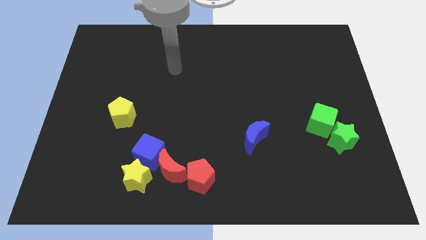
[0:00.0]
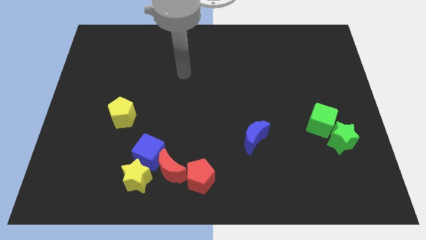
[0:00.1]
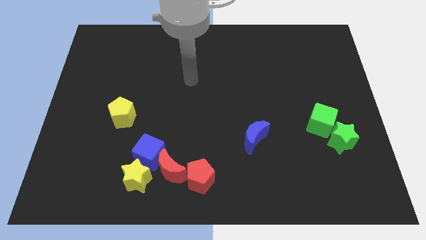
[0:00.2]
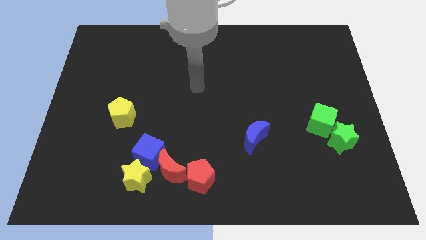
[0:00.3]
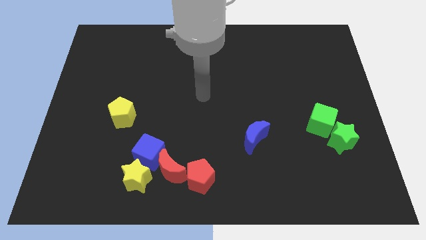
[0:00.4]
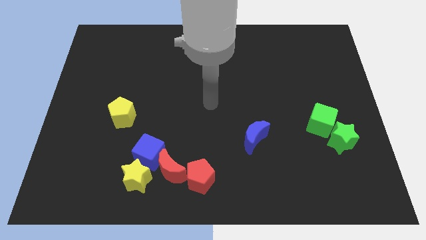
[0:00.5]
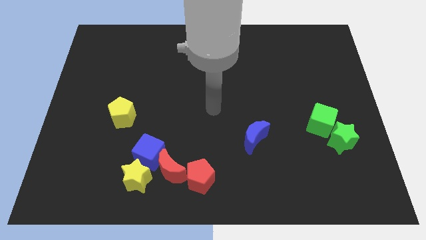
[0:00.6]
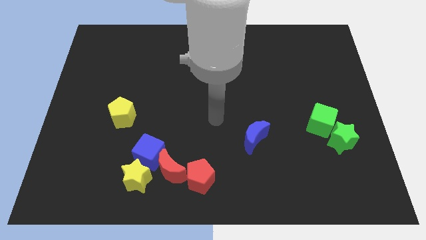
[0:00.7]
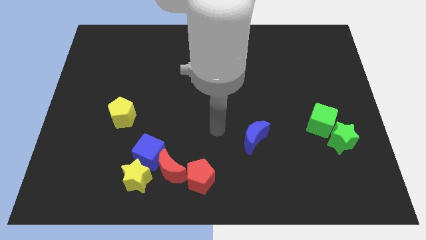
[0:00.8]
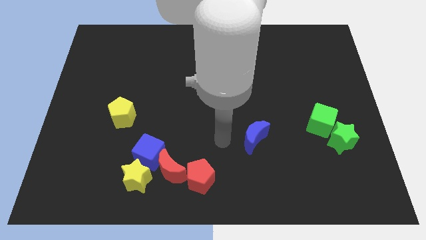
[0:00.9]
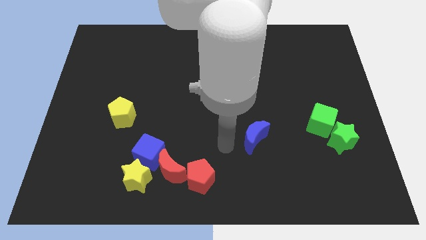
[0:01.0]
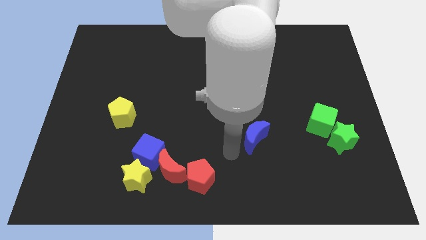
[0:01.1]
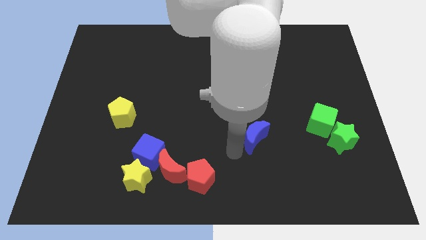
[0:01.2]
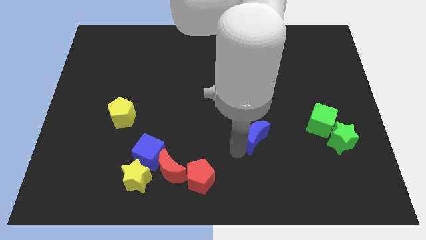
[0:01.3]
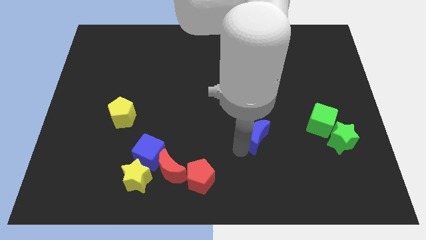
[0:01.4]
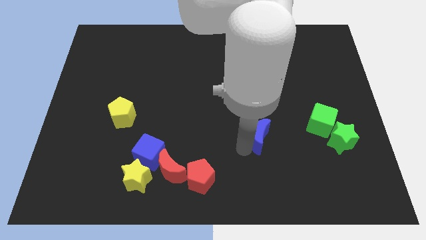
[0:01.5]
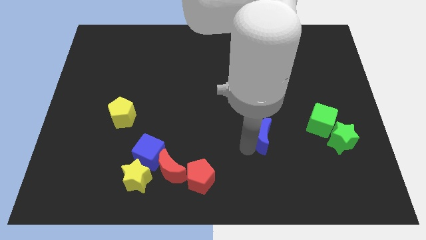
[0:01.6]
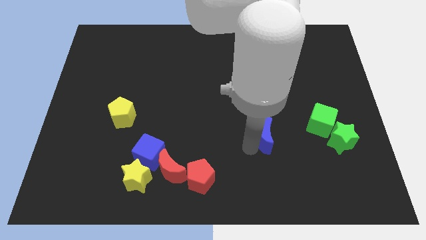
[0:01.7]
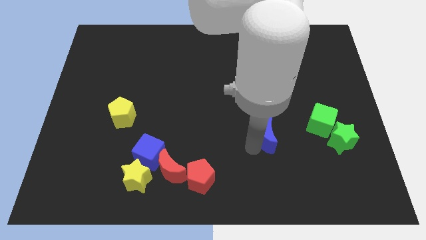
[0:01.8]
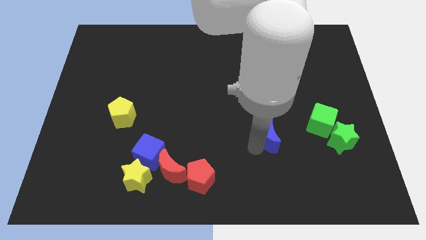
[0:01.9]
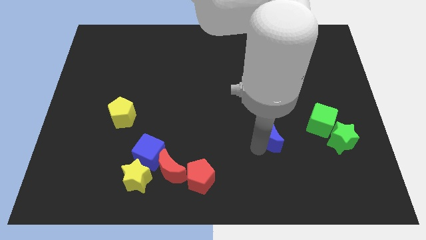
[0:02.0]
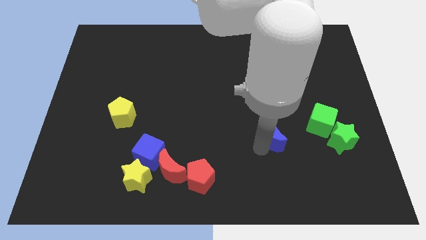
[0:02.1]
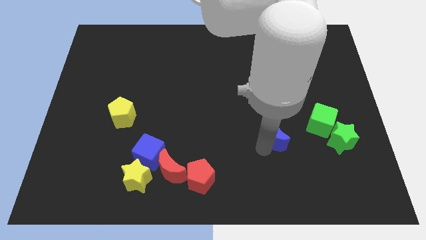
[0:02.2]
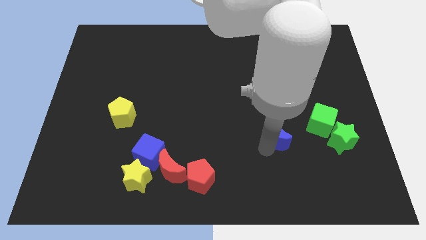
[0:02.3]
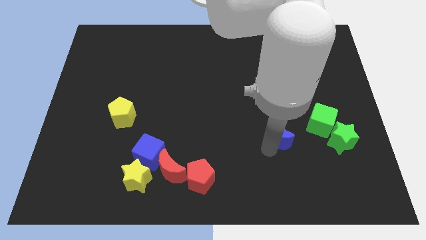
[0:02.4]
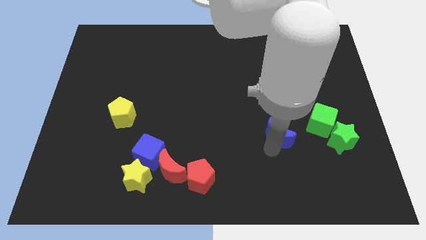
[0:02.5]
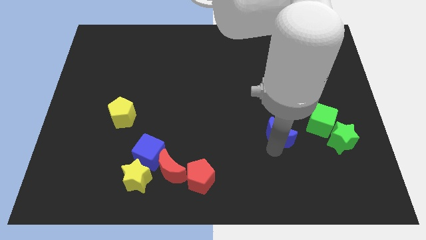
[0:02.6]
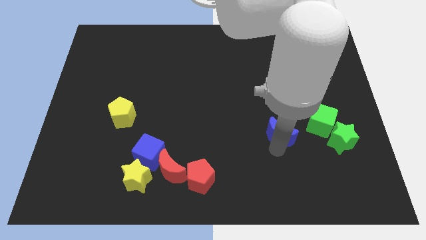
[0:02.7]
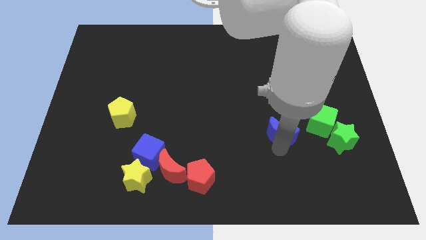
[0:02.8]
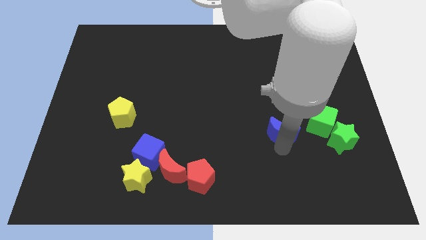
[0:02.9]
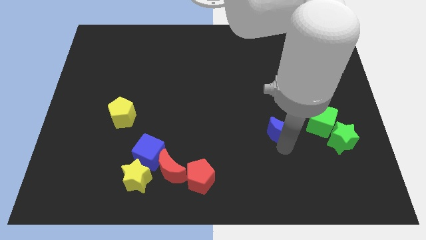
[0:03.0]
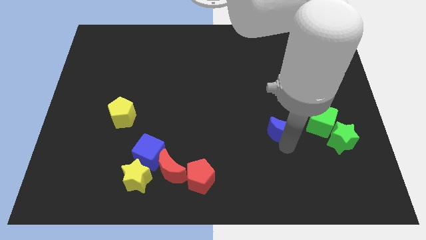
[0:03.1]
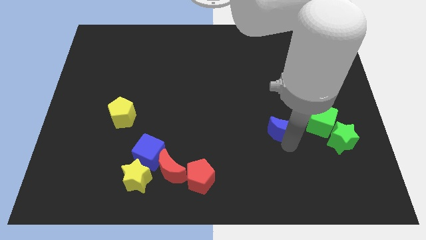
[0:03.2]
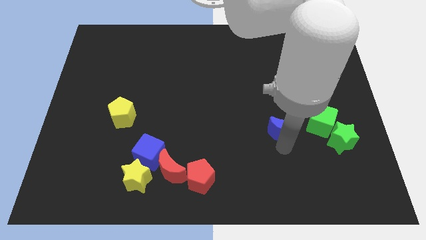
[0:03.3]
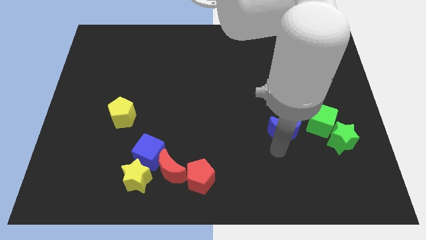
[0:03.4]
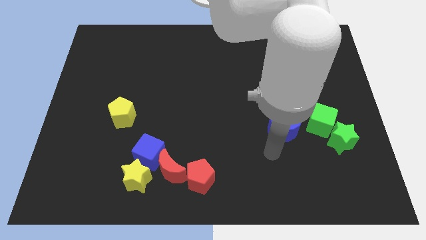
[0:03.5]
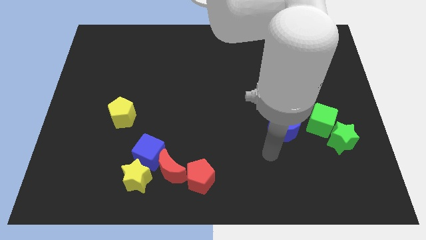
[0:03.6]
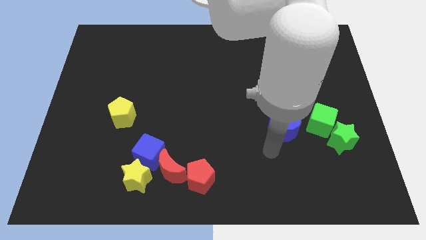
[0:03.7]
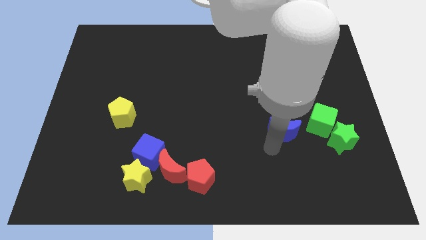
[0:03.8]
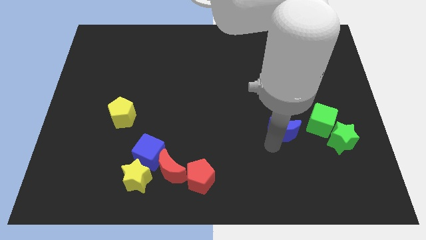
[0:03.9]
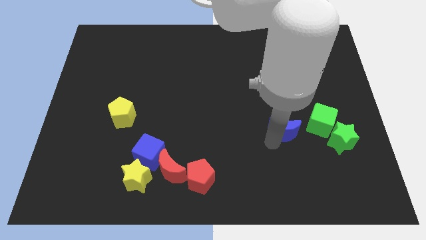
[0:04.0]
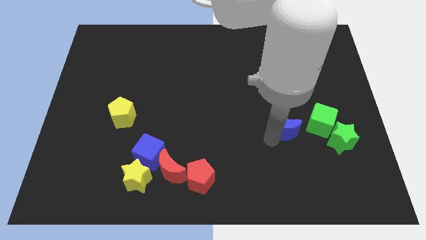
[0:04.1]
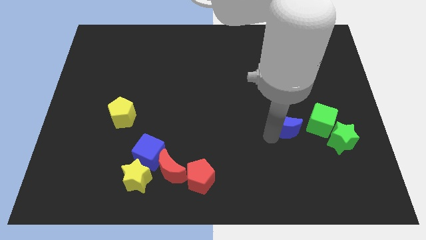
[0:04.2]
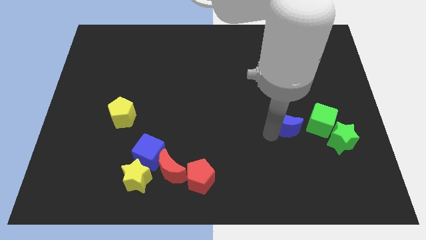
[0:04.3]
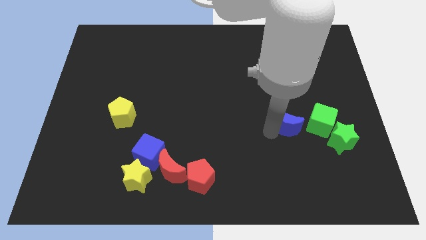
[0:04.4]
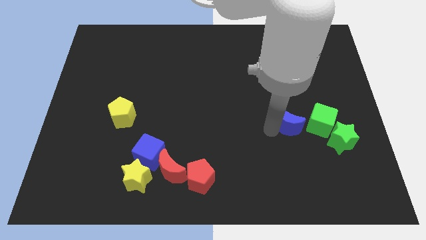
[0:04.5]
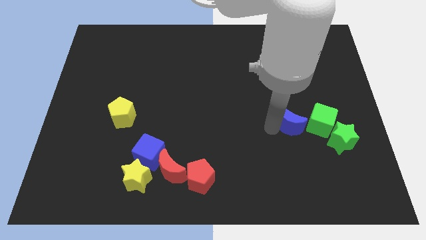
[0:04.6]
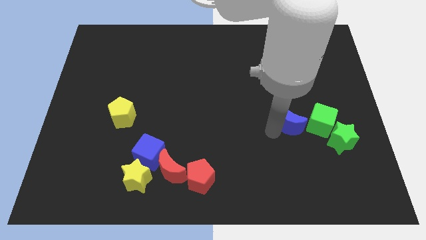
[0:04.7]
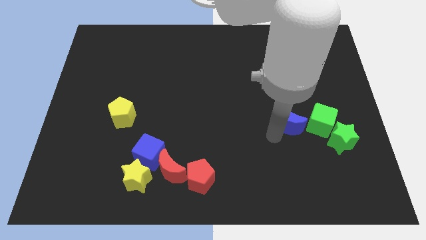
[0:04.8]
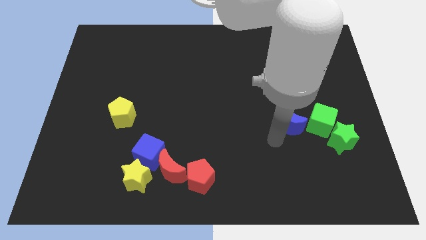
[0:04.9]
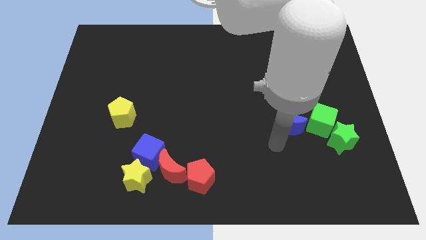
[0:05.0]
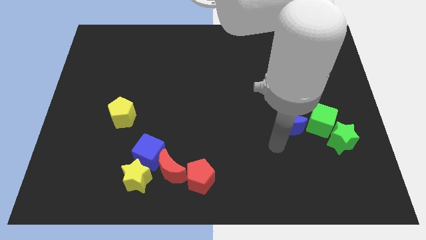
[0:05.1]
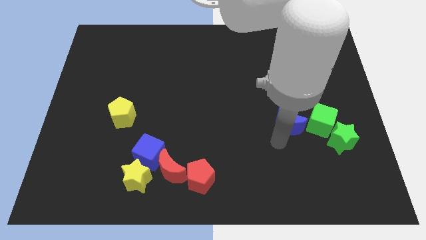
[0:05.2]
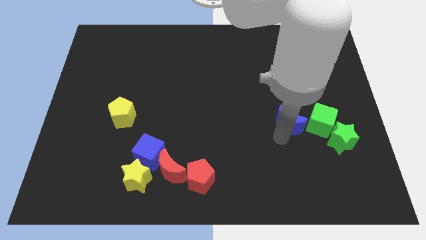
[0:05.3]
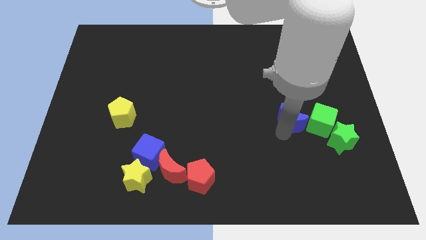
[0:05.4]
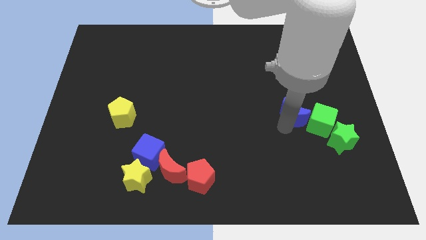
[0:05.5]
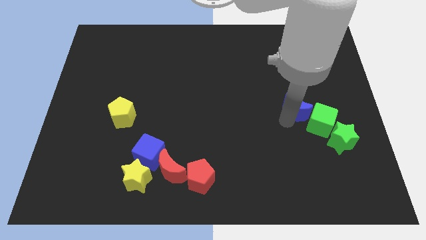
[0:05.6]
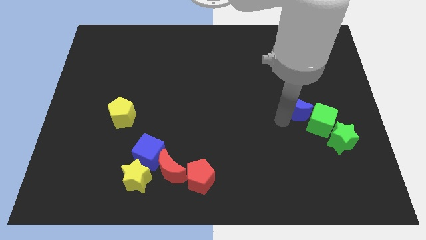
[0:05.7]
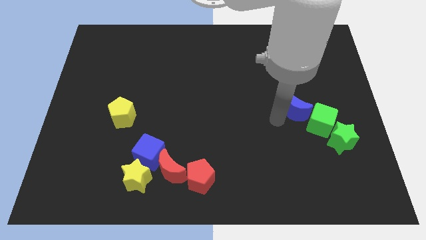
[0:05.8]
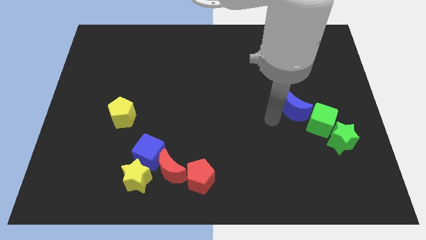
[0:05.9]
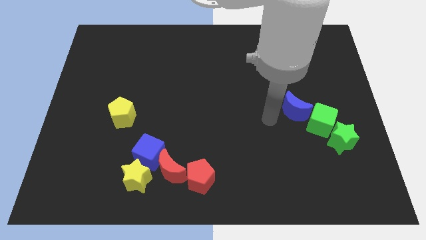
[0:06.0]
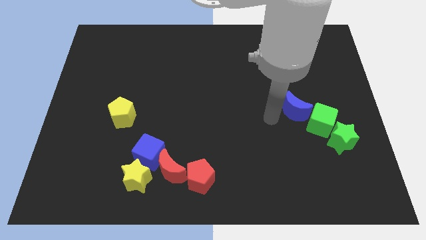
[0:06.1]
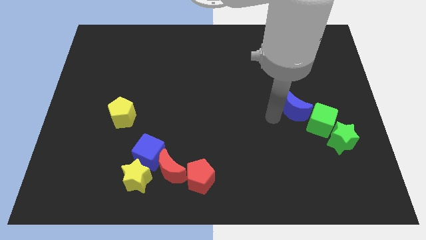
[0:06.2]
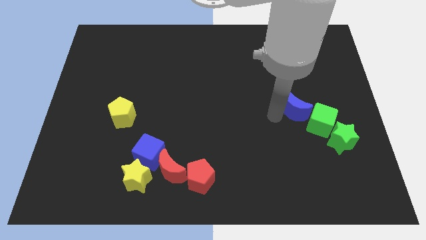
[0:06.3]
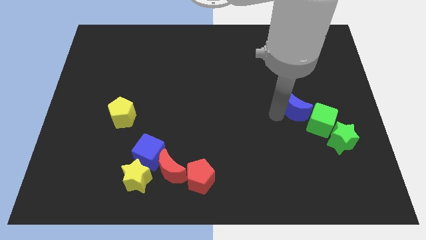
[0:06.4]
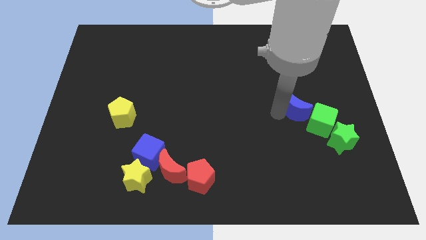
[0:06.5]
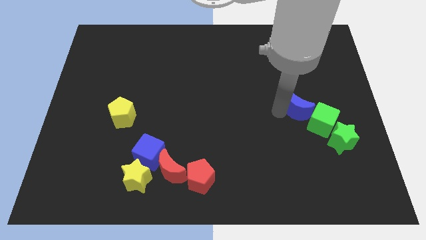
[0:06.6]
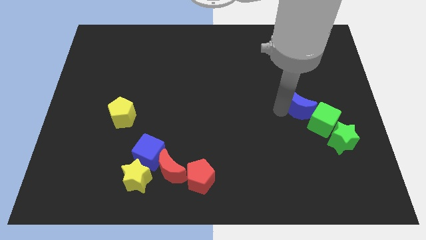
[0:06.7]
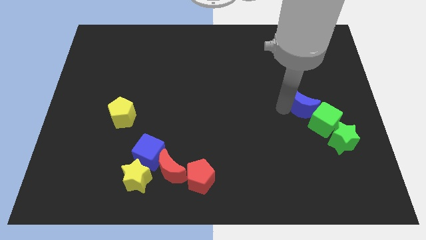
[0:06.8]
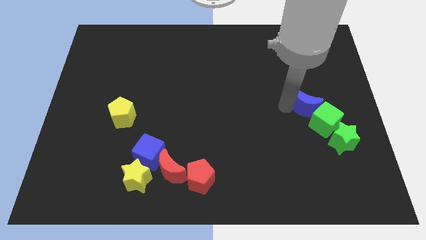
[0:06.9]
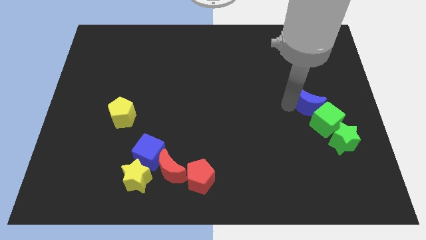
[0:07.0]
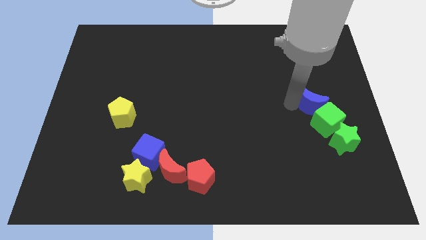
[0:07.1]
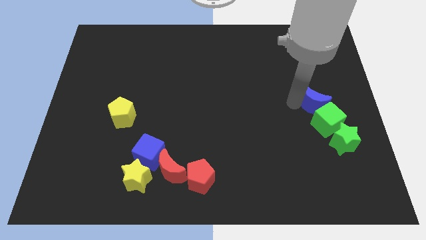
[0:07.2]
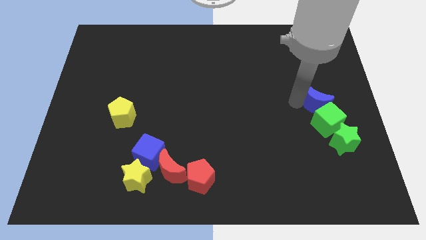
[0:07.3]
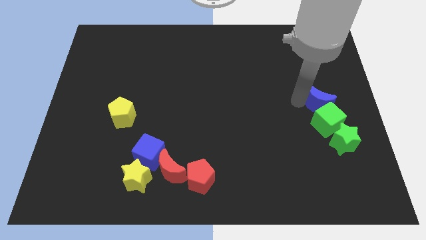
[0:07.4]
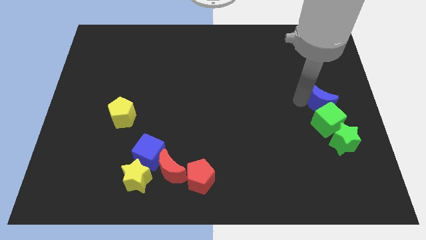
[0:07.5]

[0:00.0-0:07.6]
move the blue moon to the right side of the board
